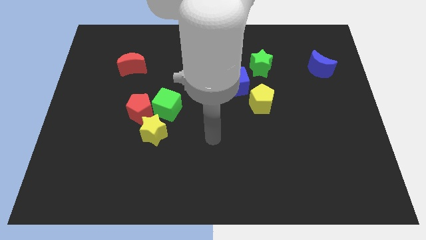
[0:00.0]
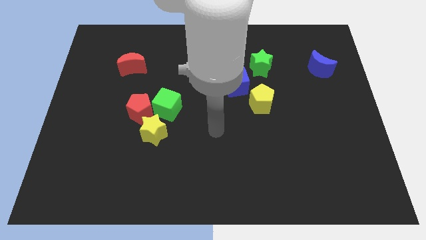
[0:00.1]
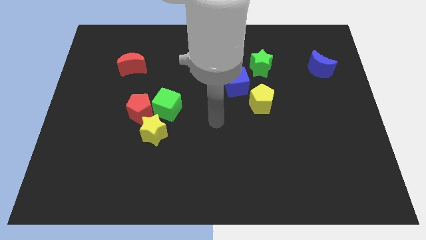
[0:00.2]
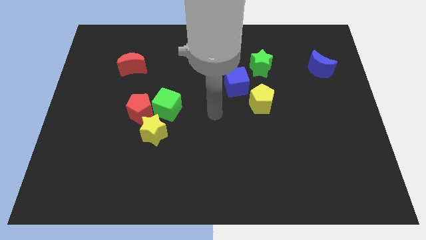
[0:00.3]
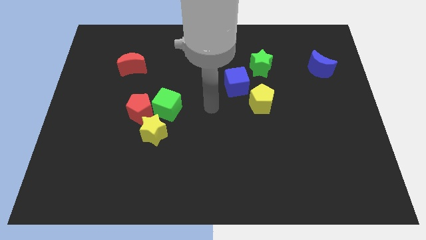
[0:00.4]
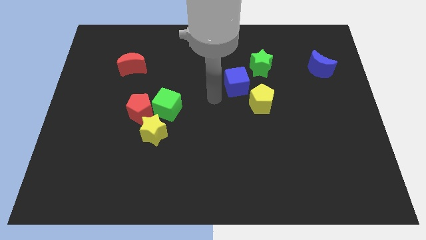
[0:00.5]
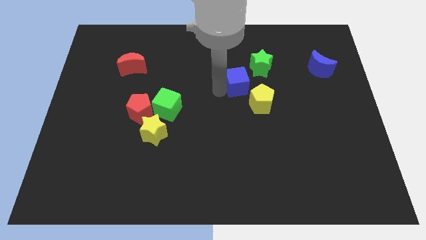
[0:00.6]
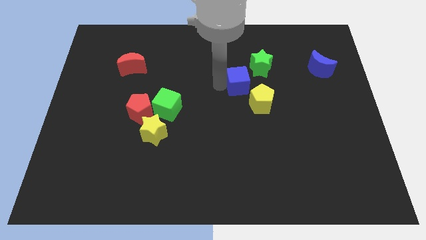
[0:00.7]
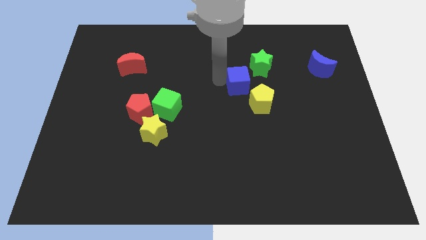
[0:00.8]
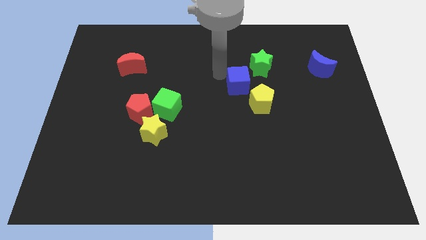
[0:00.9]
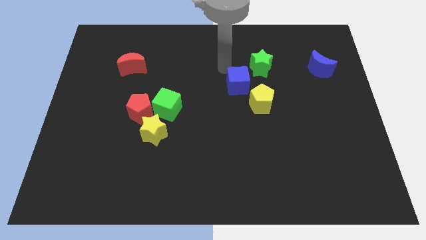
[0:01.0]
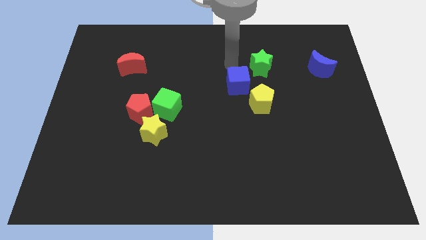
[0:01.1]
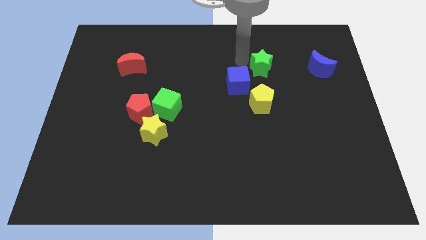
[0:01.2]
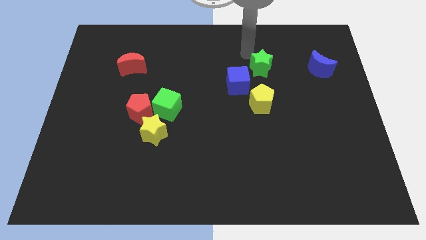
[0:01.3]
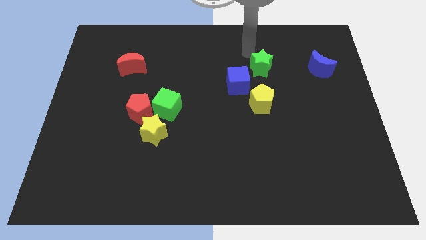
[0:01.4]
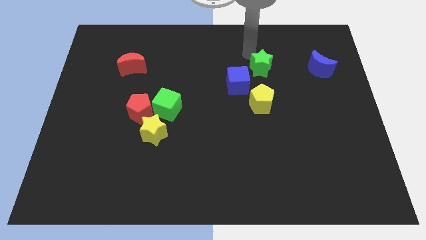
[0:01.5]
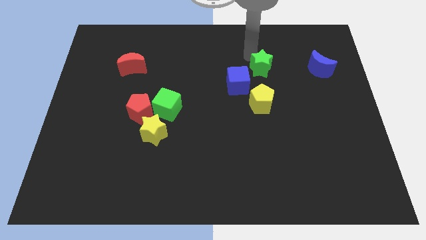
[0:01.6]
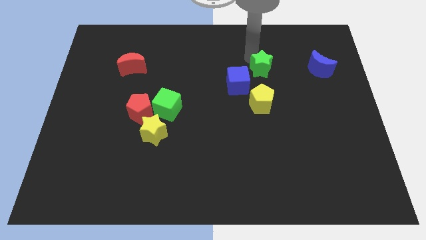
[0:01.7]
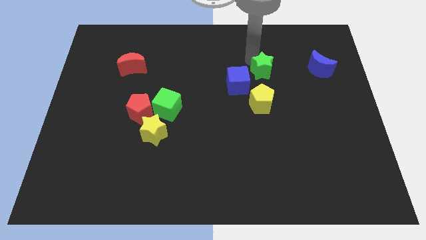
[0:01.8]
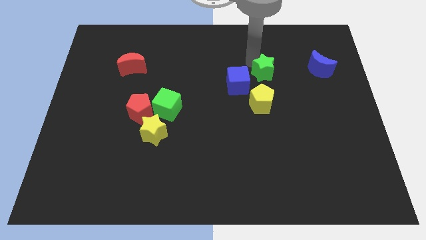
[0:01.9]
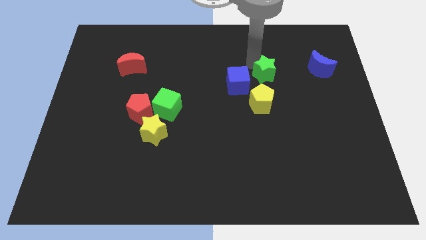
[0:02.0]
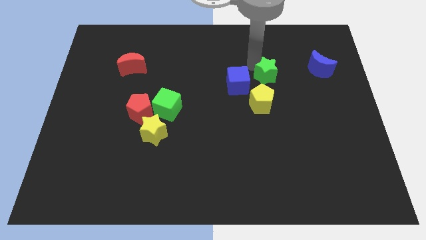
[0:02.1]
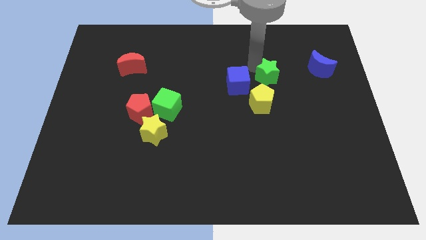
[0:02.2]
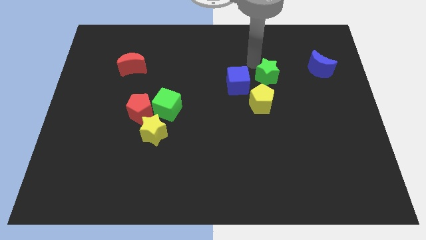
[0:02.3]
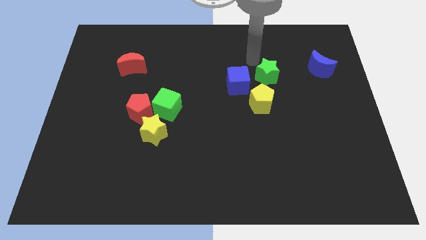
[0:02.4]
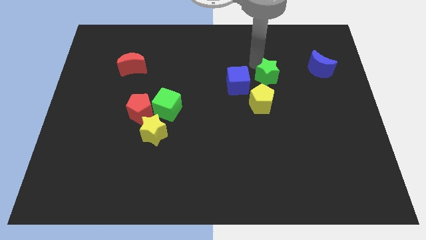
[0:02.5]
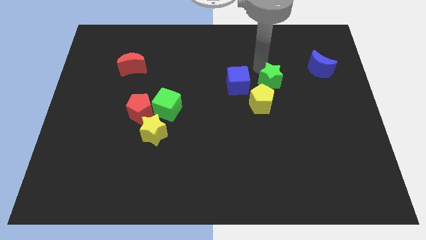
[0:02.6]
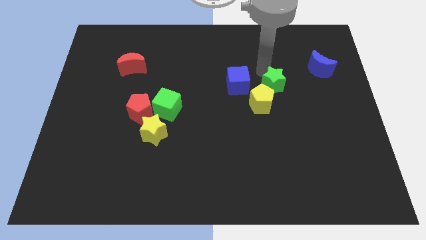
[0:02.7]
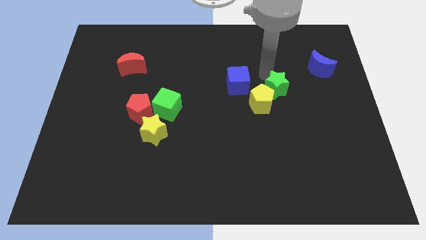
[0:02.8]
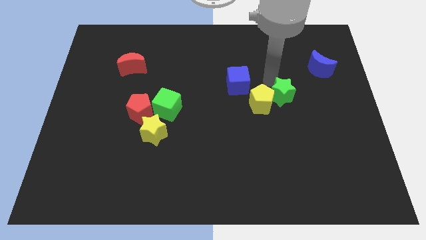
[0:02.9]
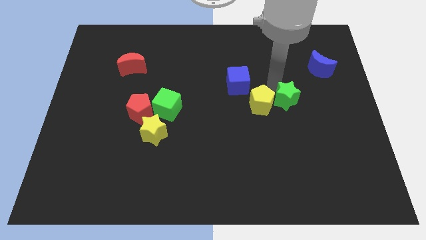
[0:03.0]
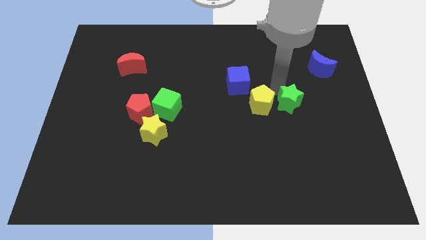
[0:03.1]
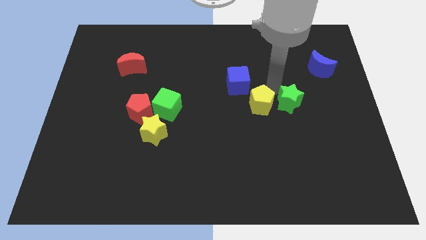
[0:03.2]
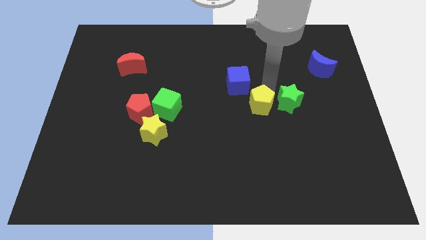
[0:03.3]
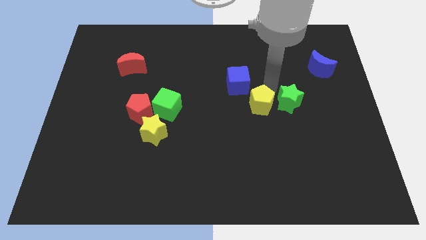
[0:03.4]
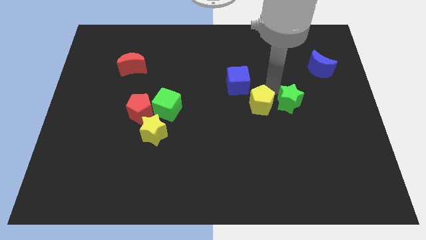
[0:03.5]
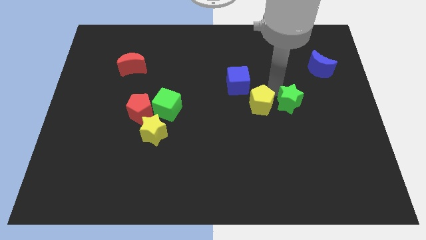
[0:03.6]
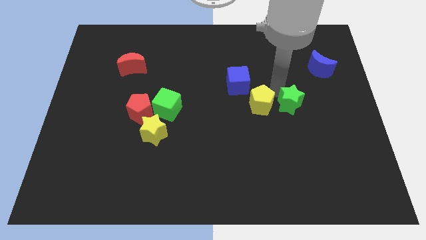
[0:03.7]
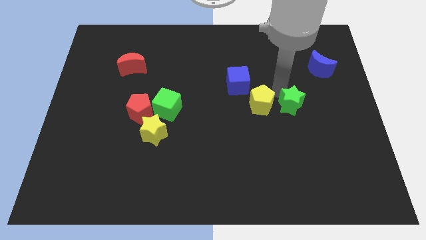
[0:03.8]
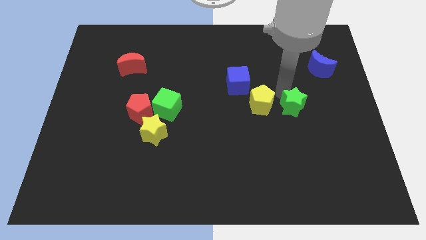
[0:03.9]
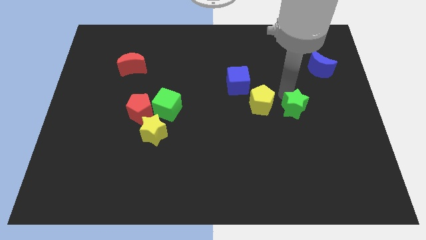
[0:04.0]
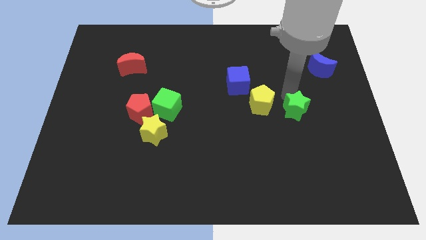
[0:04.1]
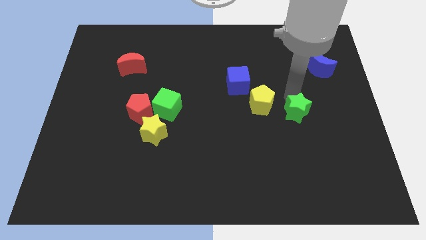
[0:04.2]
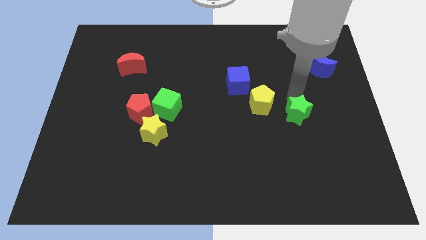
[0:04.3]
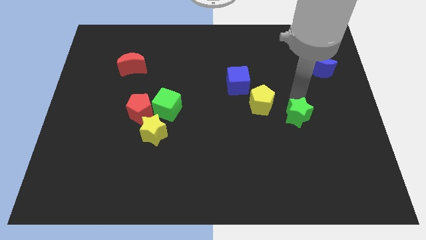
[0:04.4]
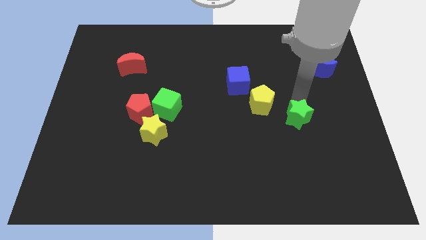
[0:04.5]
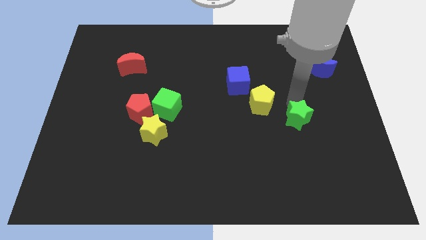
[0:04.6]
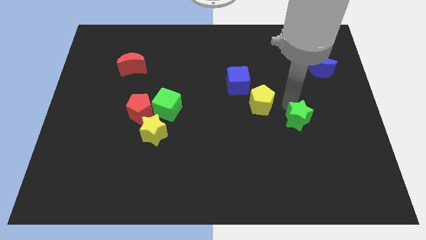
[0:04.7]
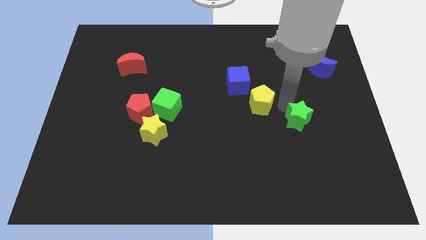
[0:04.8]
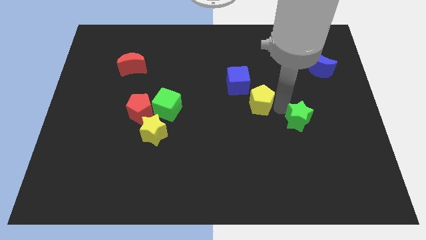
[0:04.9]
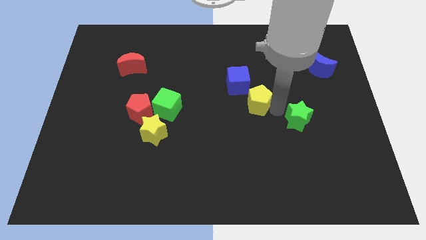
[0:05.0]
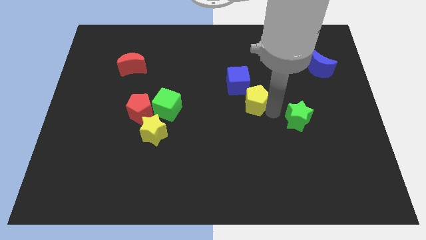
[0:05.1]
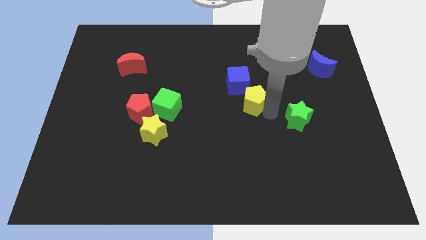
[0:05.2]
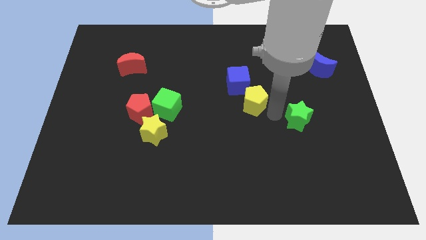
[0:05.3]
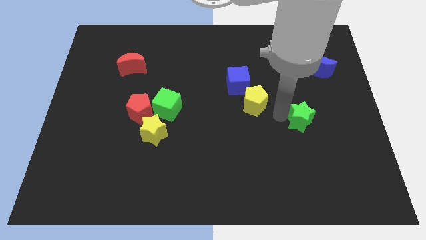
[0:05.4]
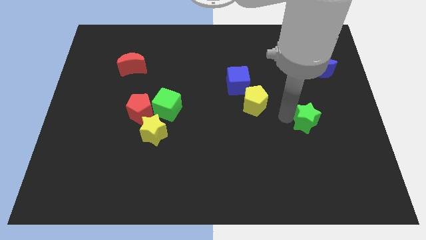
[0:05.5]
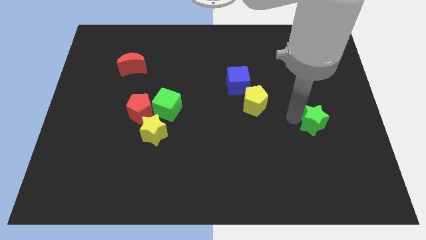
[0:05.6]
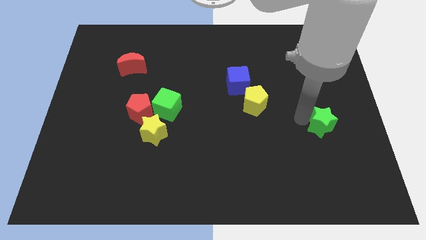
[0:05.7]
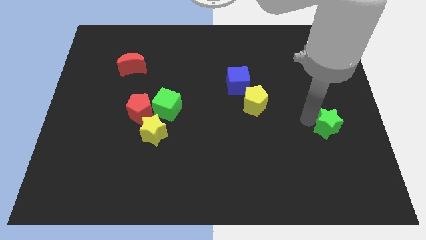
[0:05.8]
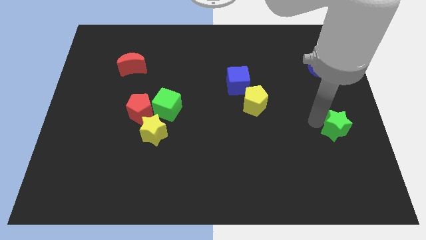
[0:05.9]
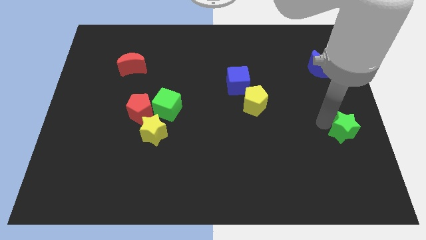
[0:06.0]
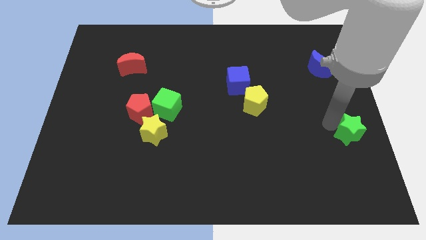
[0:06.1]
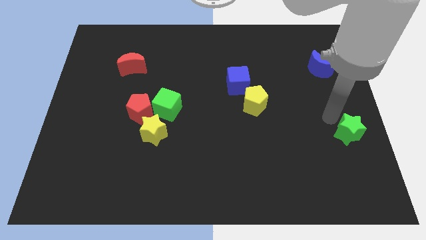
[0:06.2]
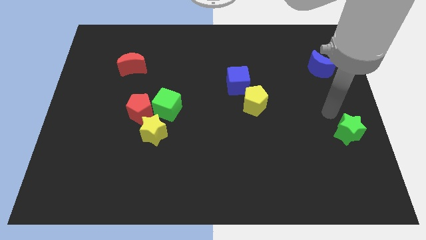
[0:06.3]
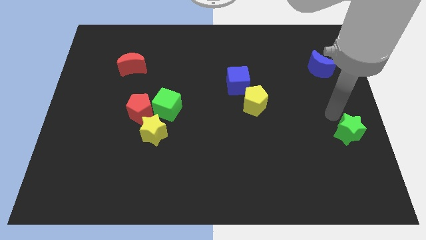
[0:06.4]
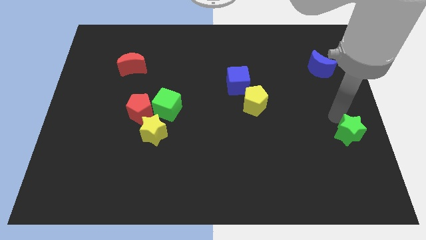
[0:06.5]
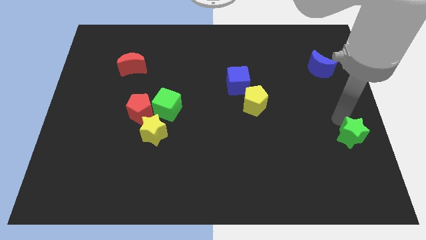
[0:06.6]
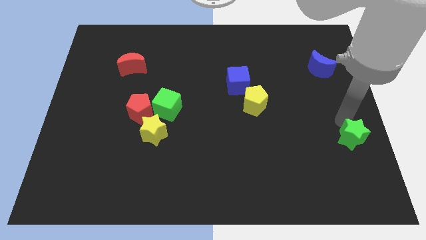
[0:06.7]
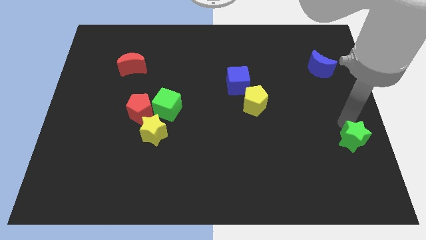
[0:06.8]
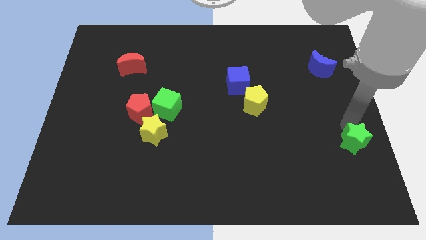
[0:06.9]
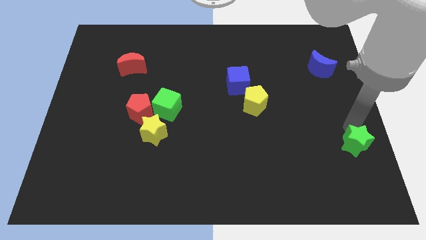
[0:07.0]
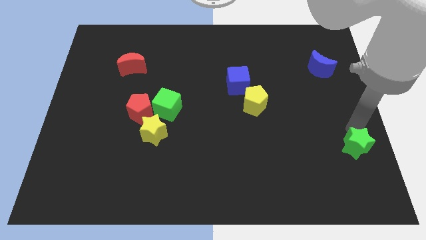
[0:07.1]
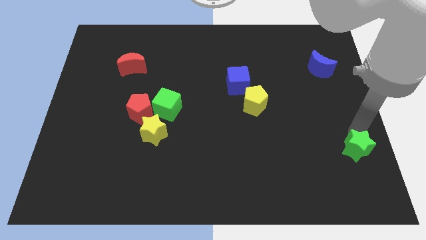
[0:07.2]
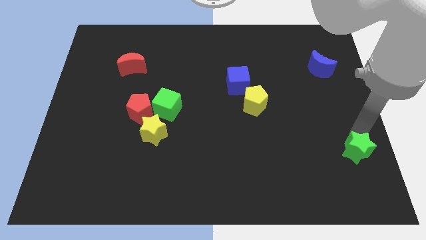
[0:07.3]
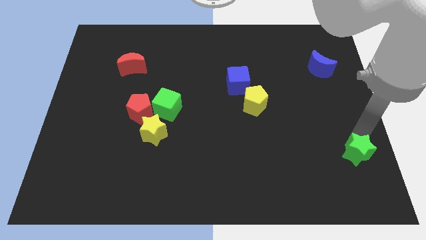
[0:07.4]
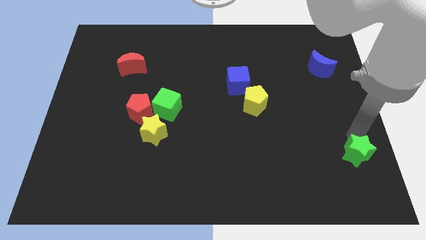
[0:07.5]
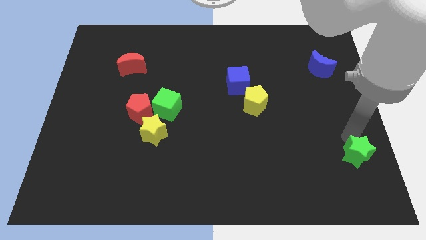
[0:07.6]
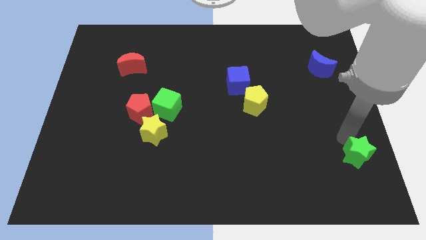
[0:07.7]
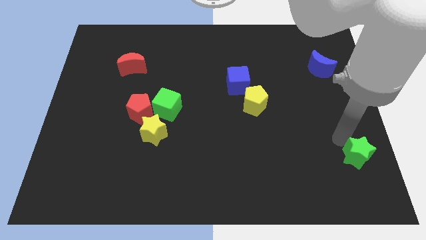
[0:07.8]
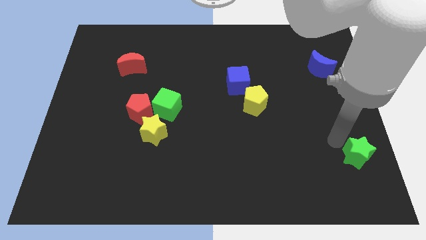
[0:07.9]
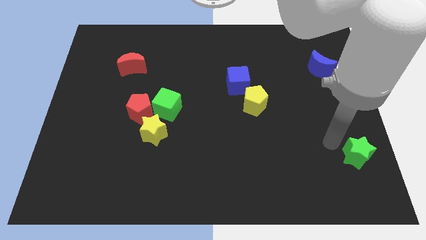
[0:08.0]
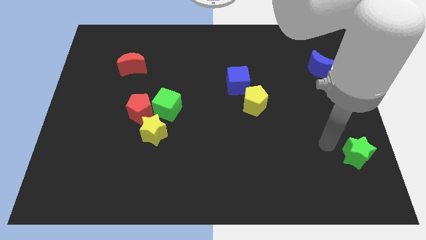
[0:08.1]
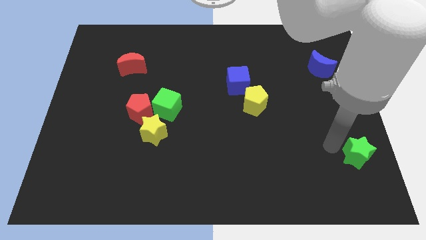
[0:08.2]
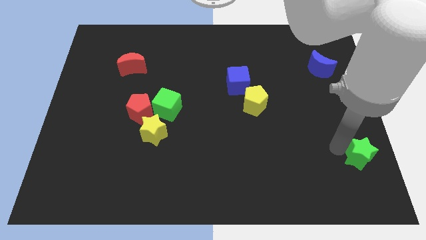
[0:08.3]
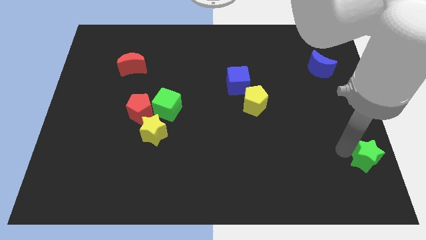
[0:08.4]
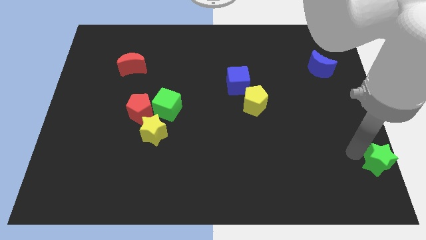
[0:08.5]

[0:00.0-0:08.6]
slide the green star to the bottom right
